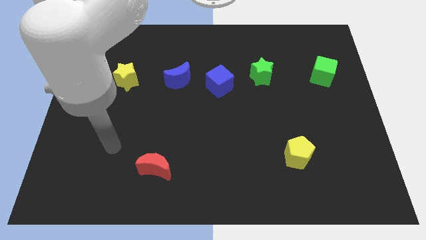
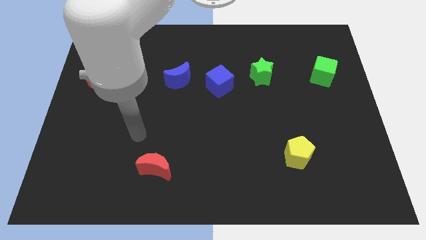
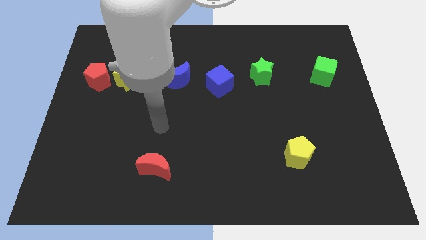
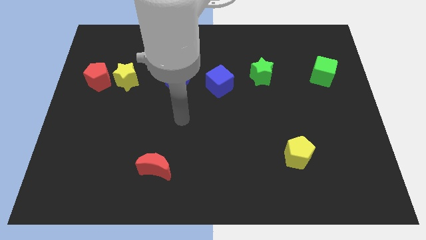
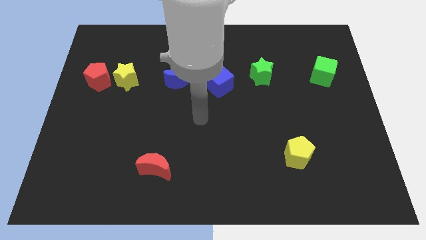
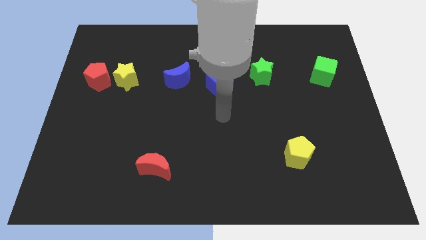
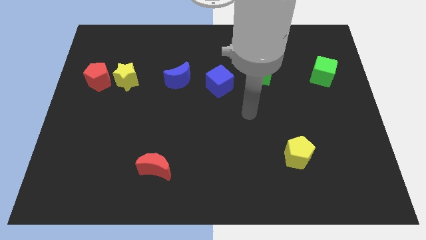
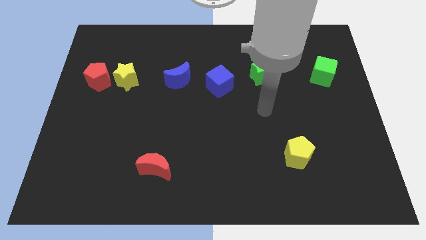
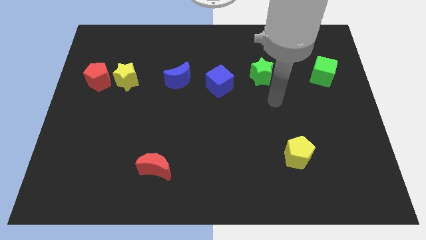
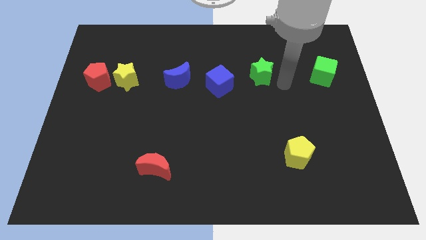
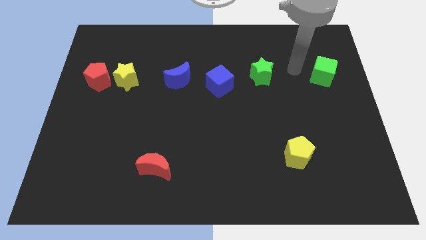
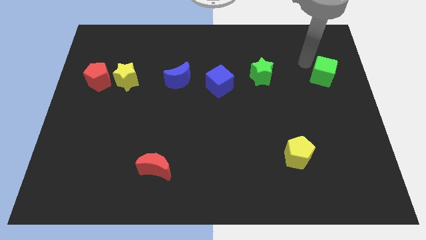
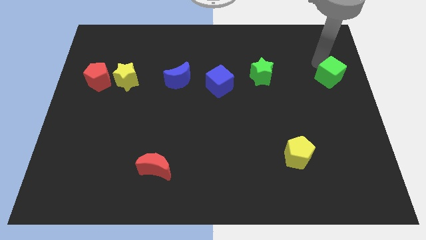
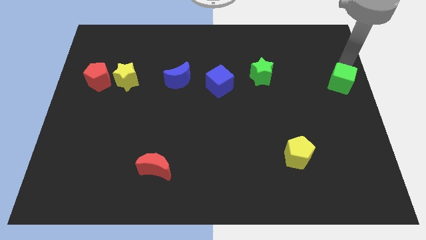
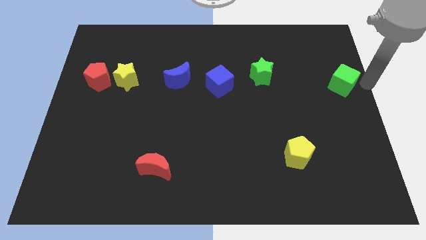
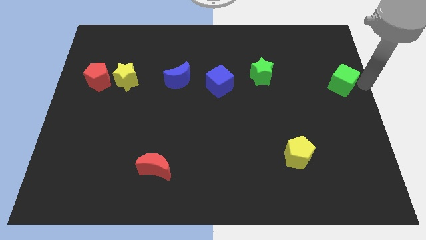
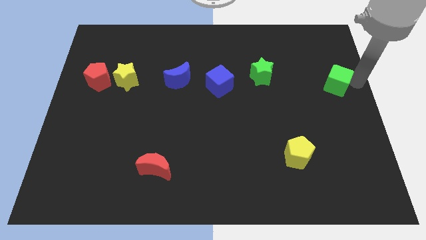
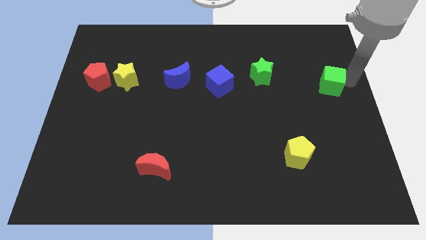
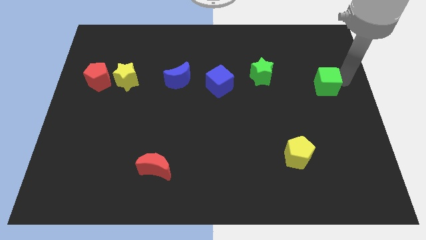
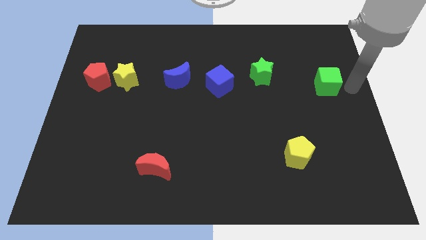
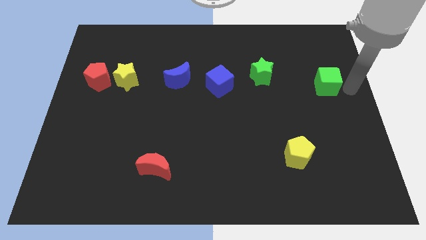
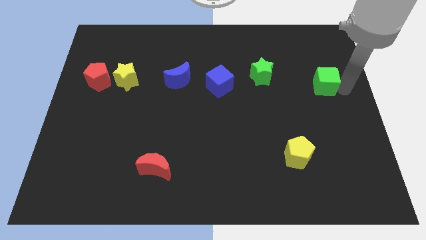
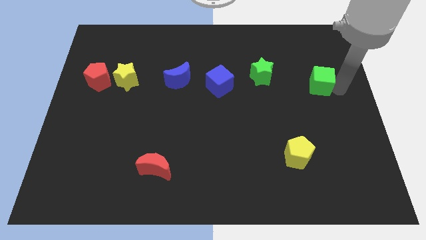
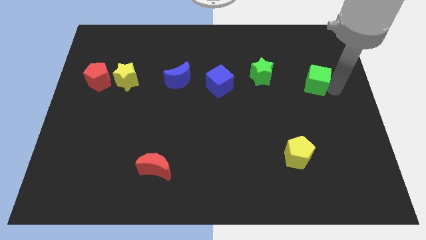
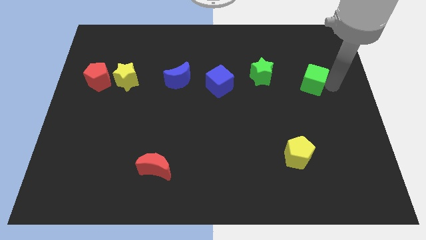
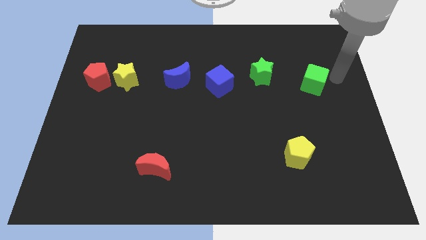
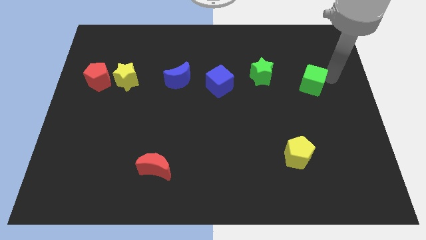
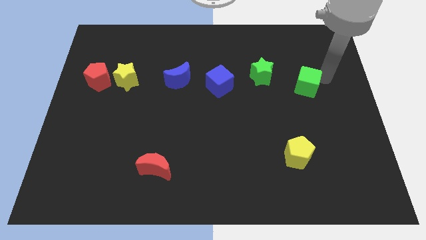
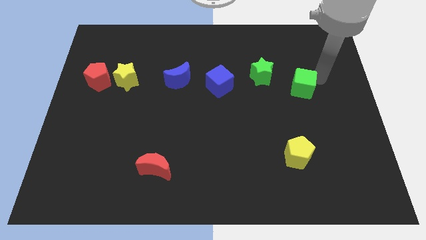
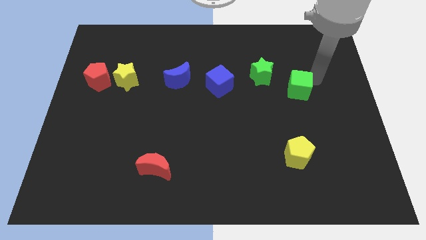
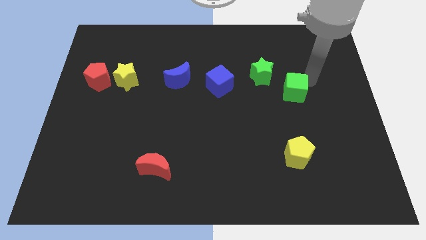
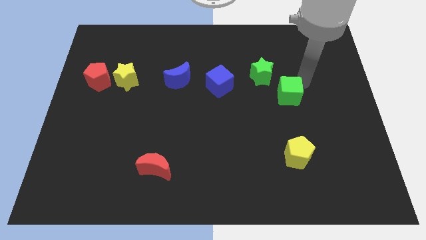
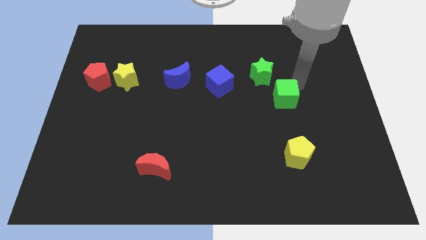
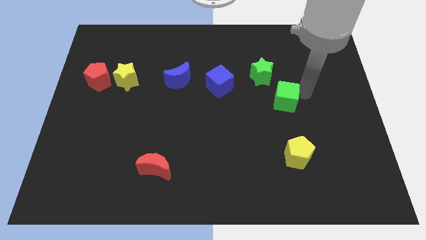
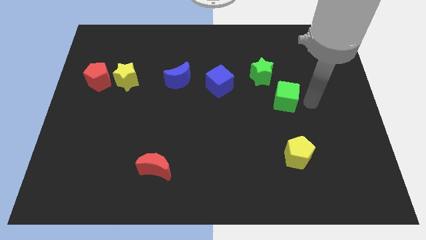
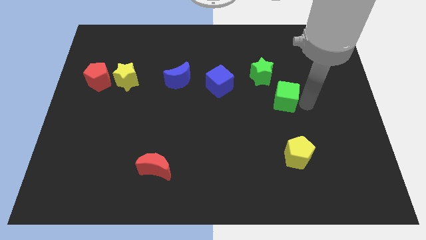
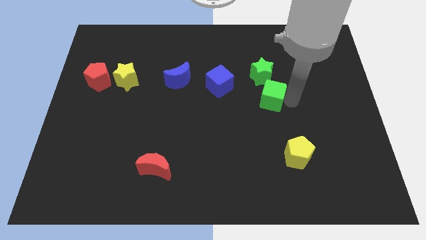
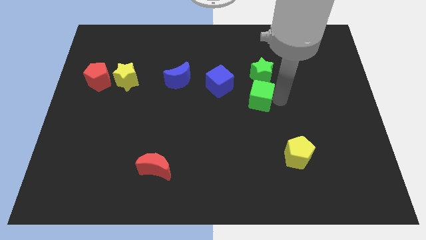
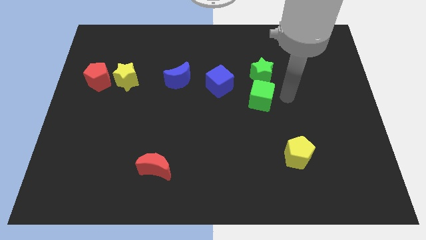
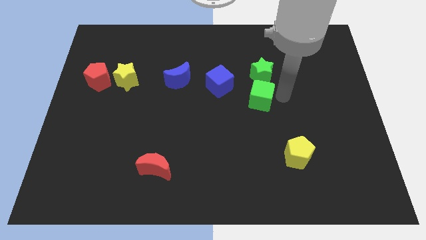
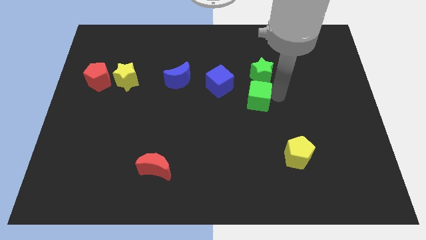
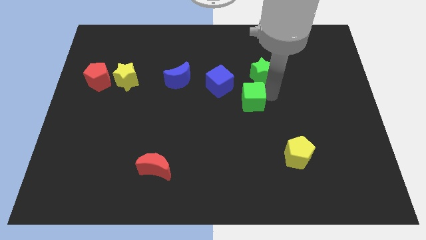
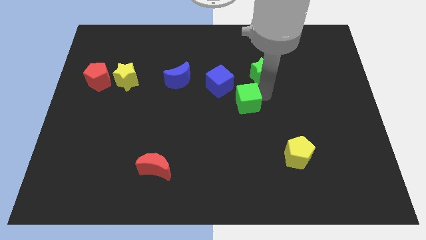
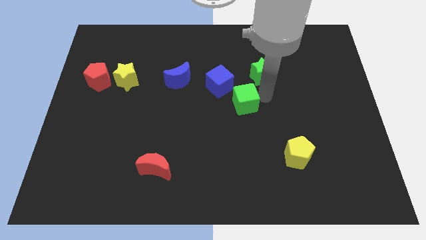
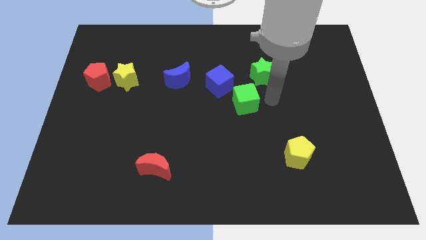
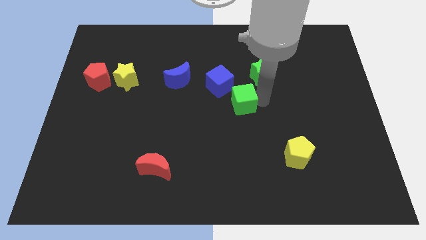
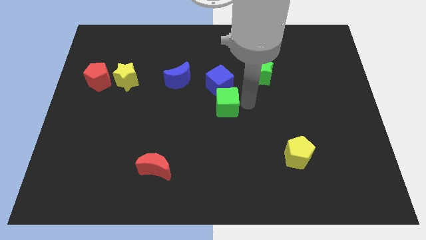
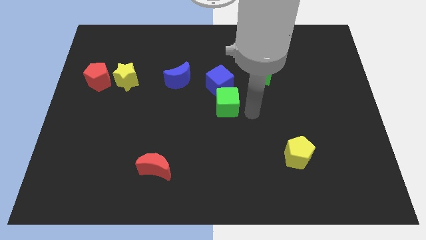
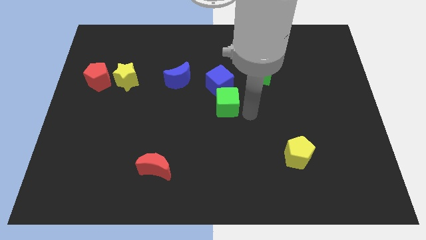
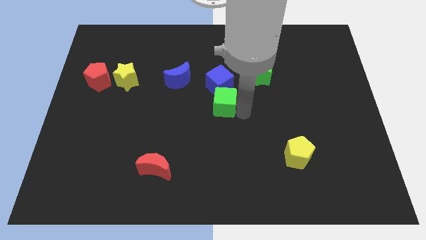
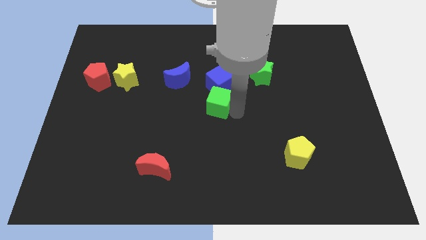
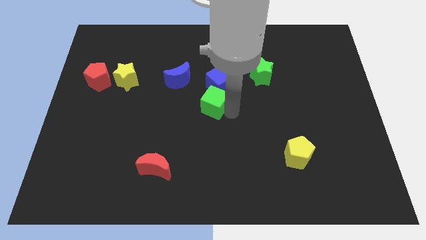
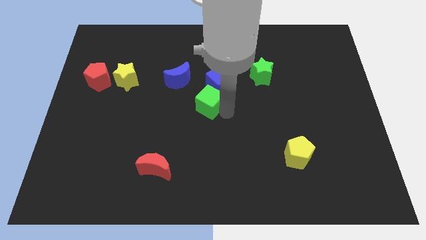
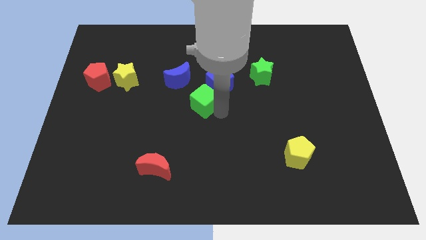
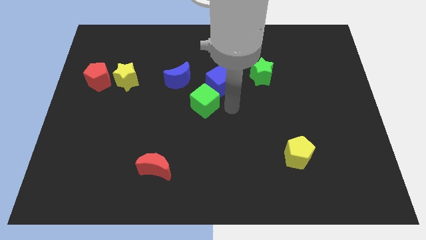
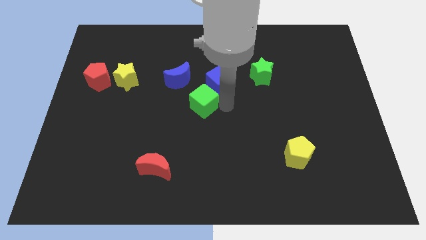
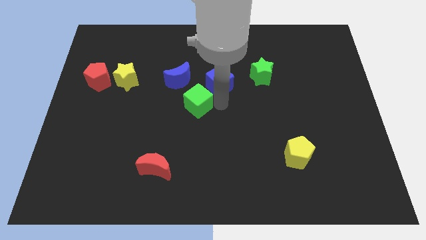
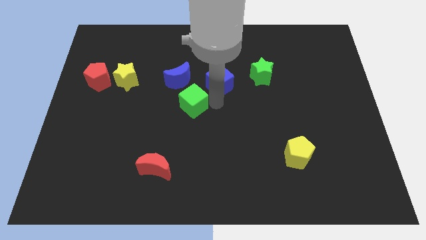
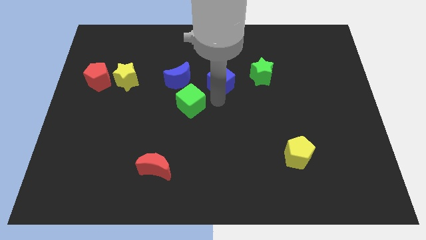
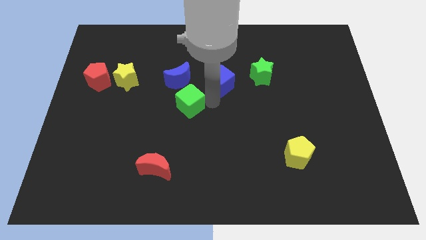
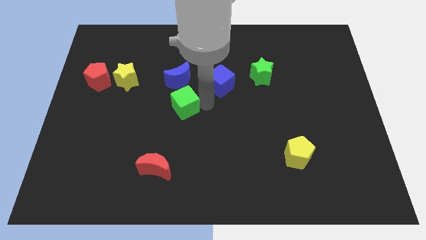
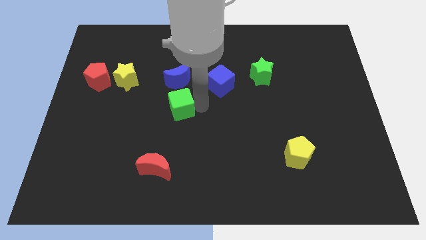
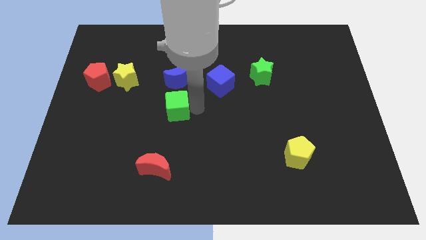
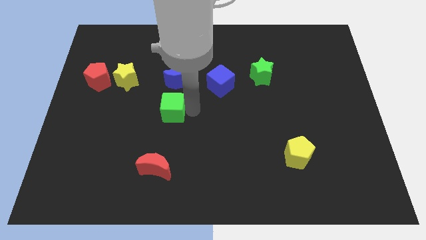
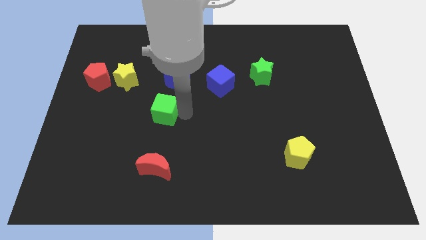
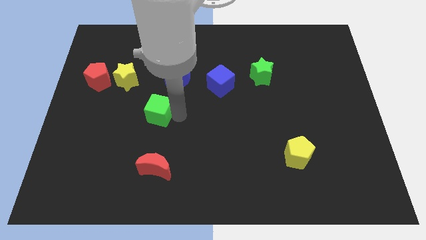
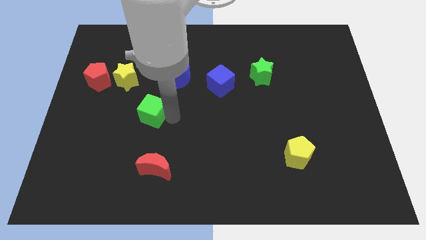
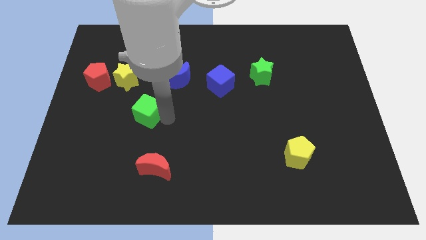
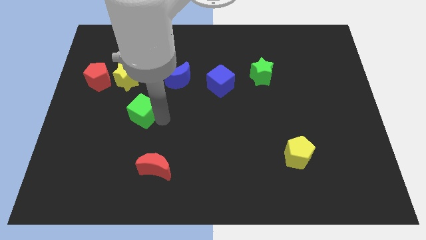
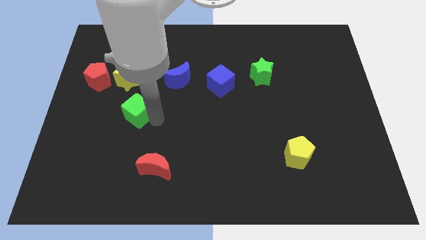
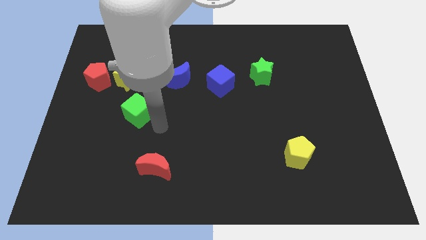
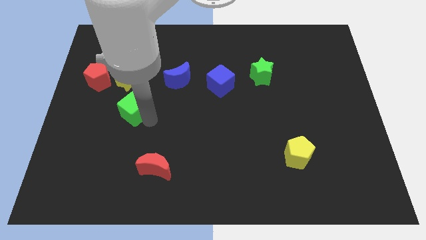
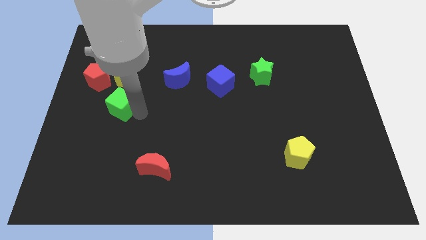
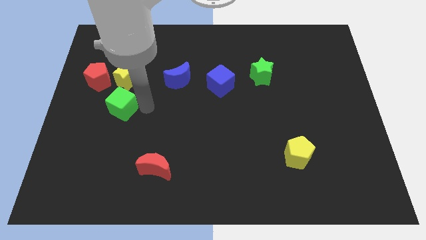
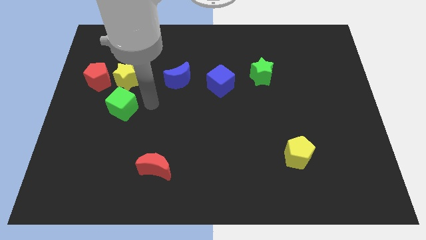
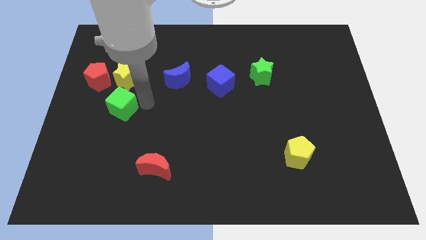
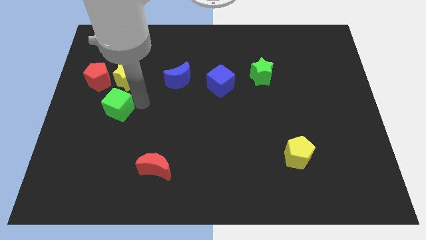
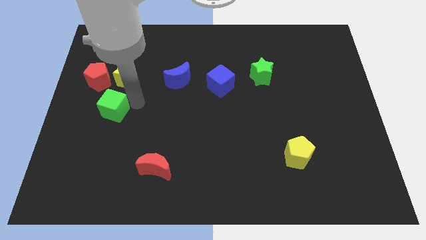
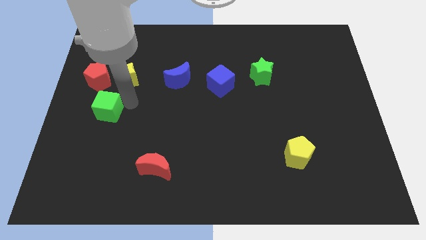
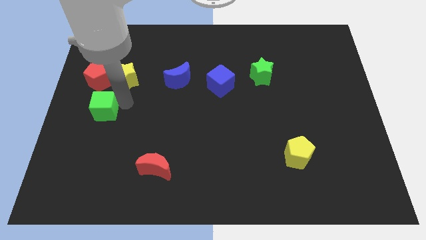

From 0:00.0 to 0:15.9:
push the green cube to the center left

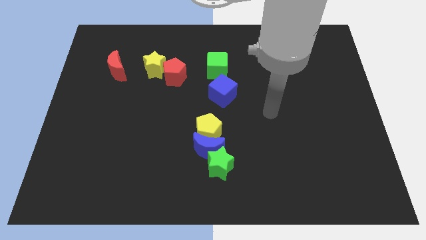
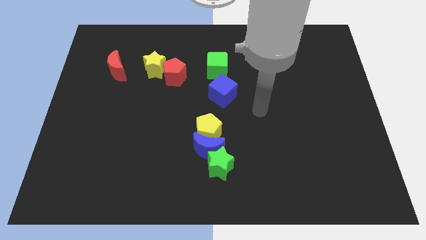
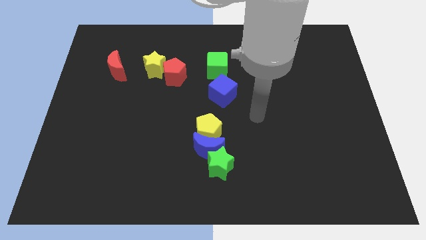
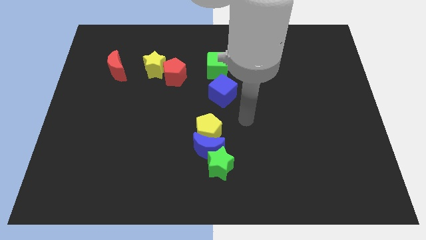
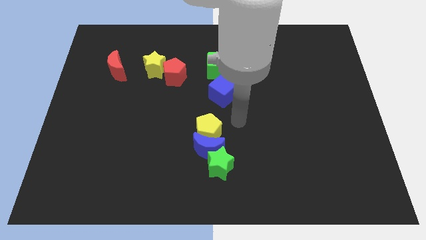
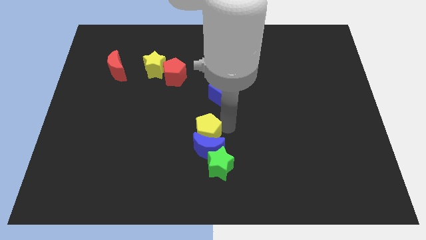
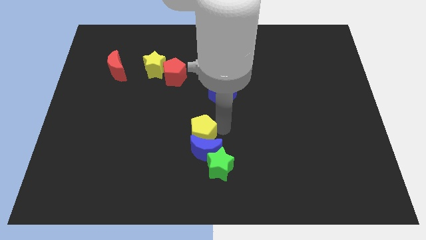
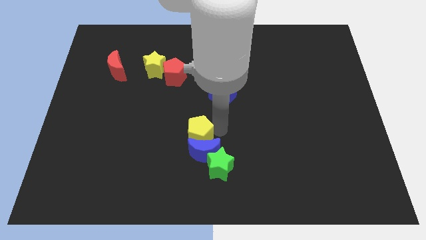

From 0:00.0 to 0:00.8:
put the blue moon to the bottom side
